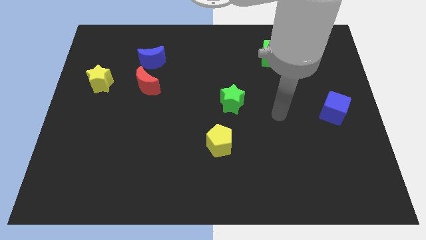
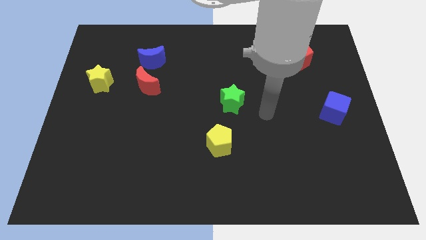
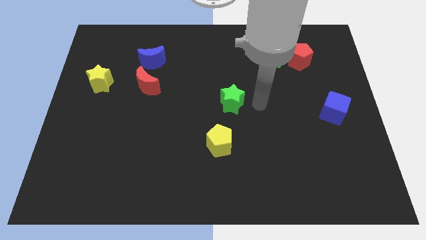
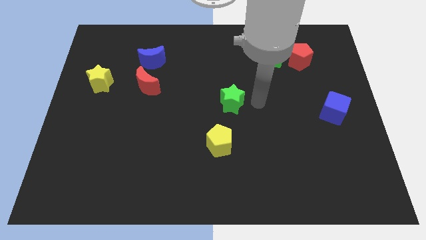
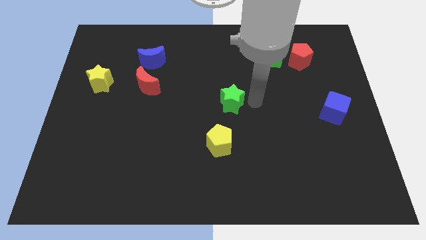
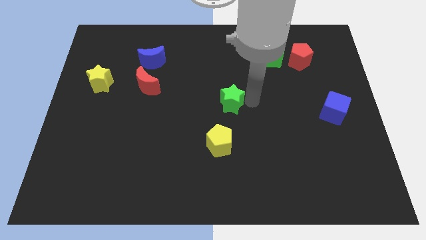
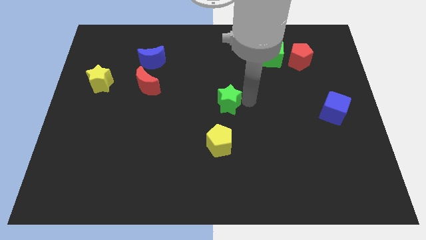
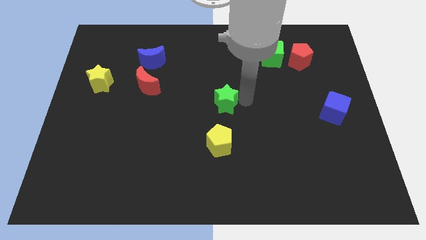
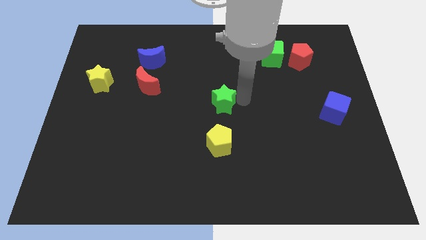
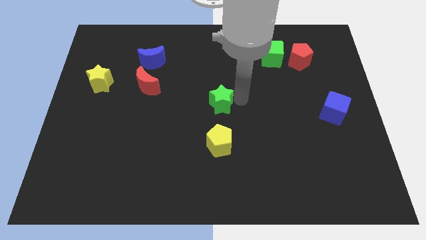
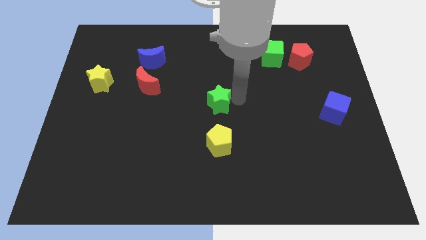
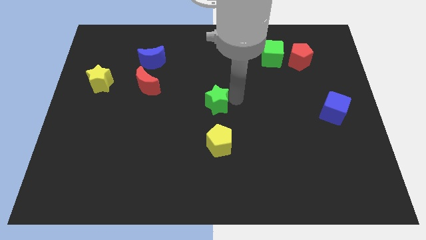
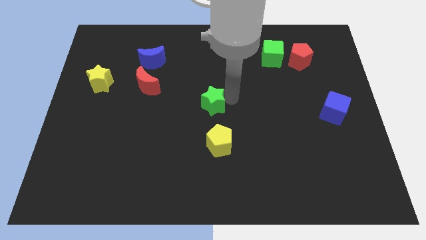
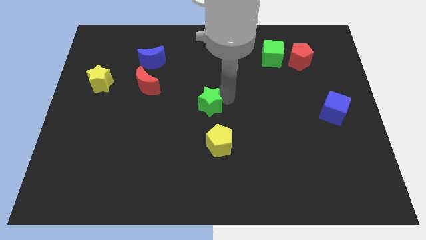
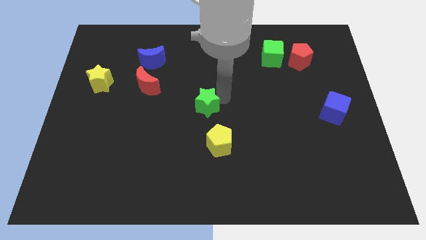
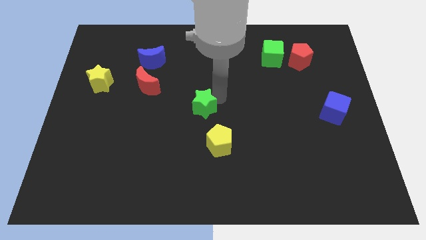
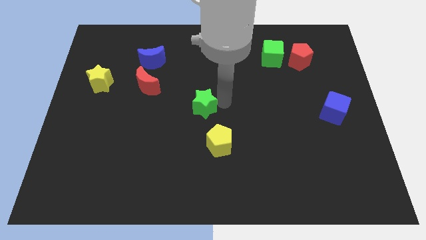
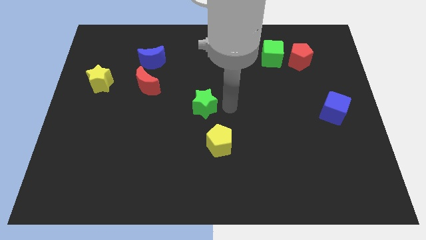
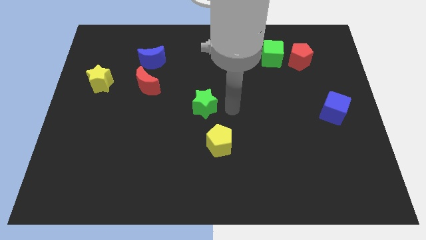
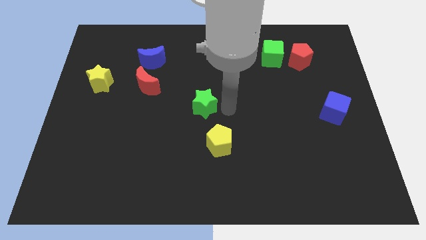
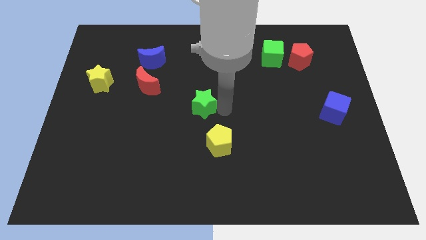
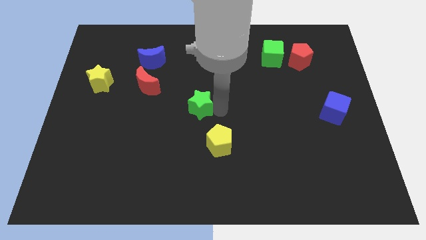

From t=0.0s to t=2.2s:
move the green star slightly left

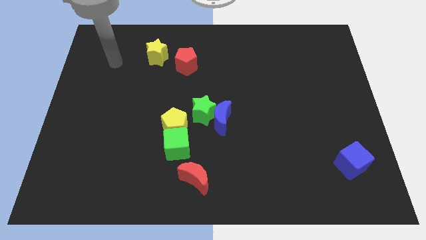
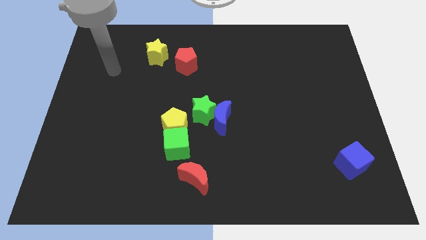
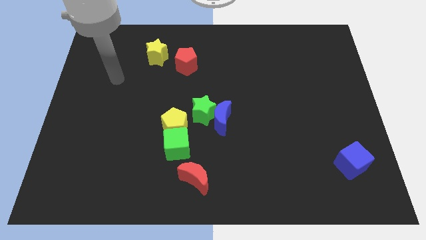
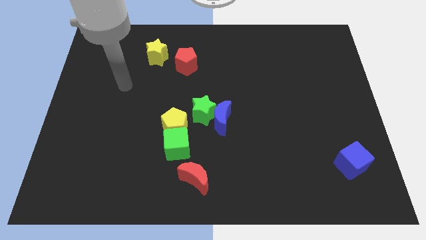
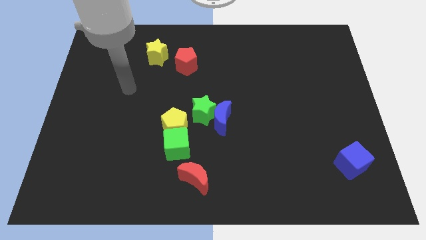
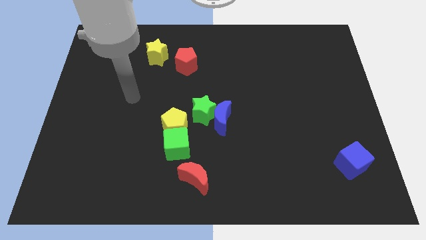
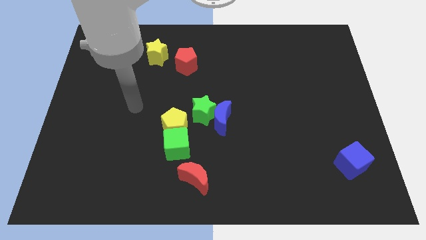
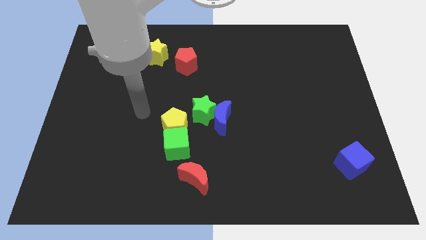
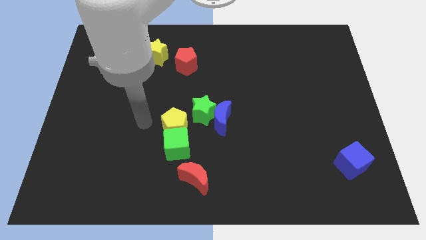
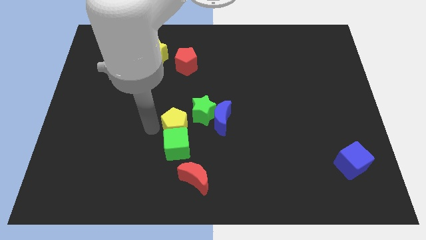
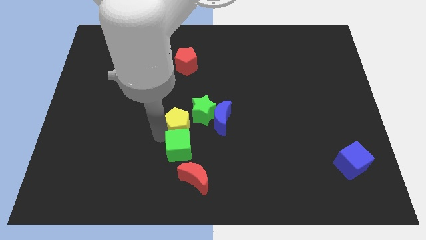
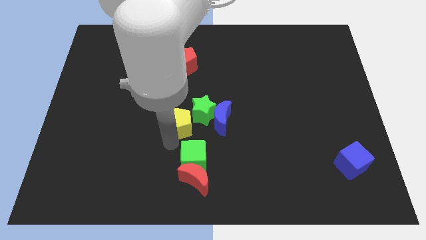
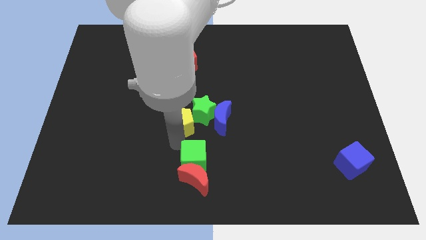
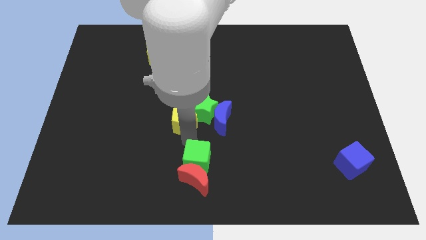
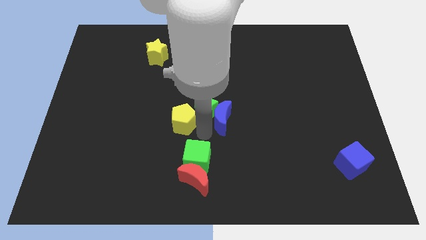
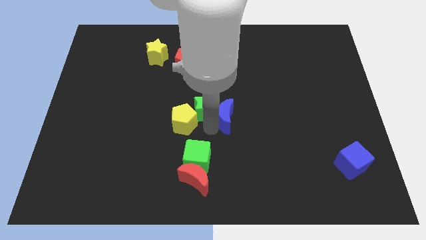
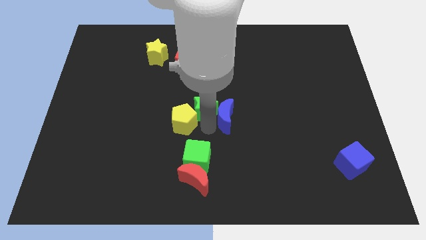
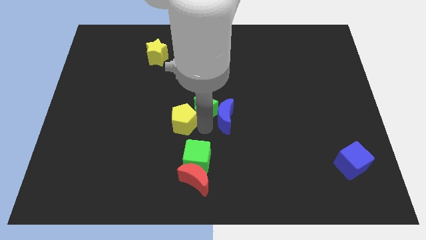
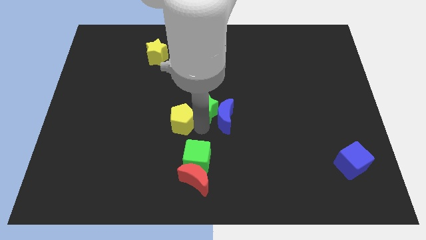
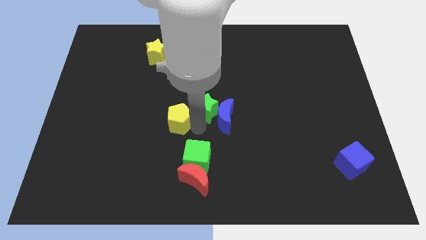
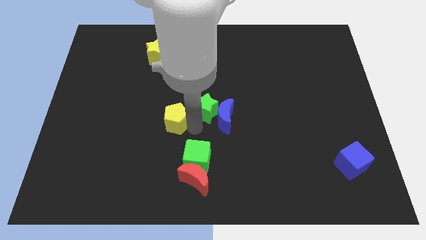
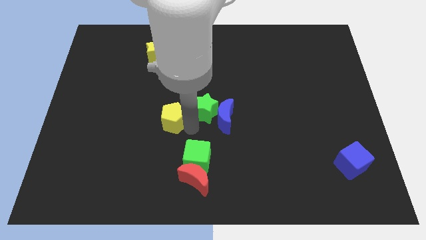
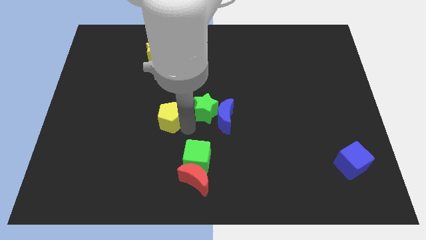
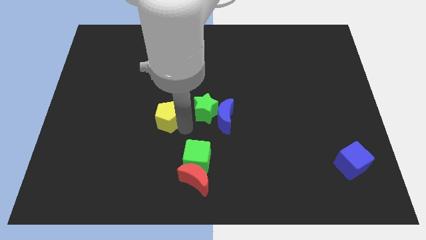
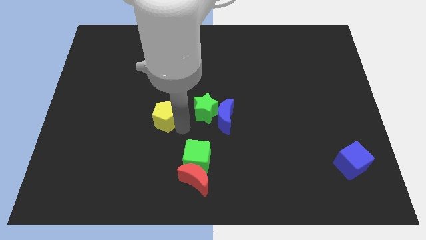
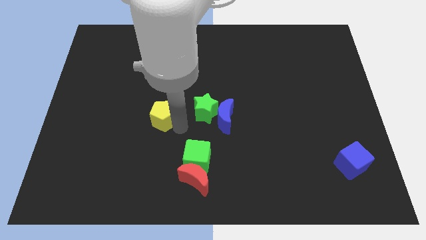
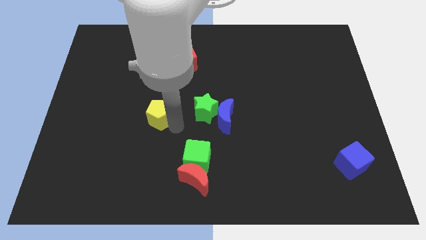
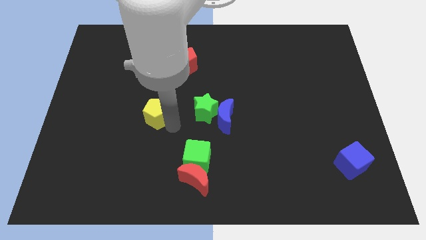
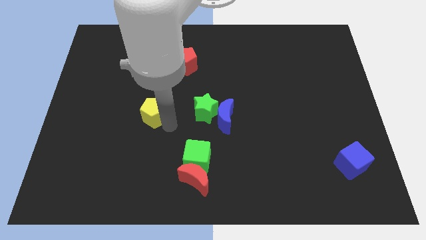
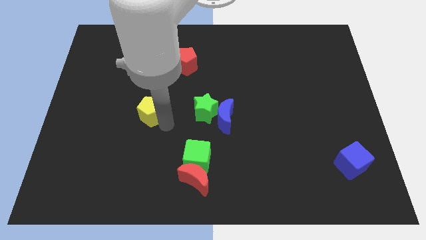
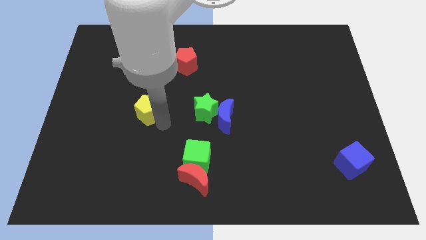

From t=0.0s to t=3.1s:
move the yellow pentagon upwards and to the left slightly

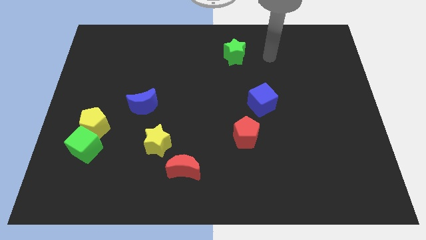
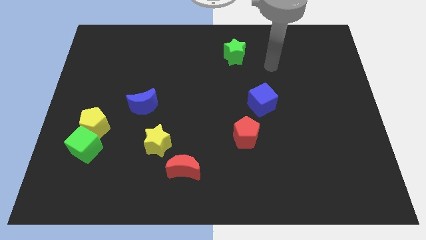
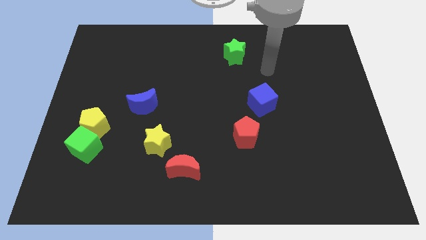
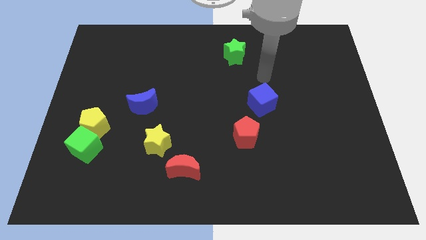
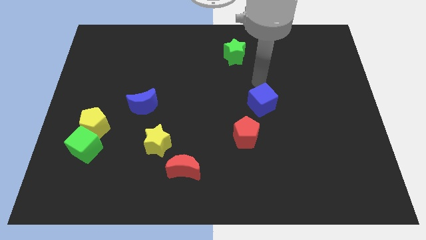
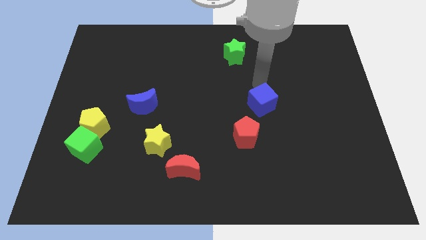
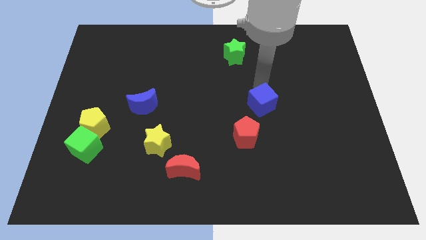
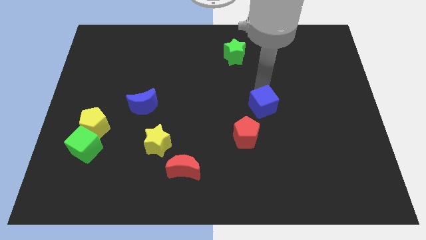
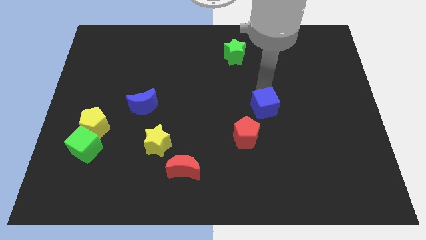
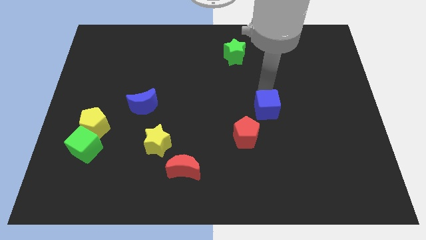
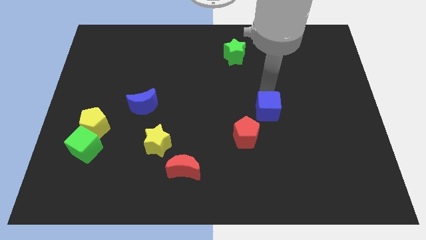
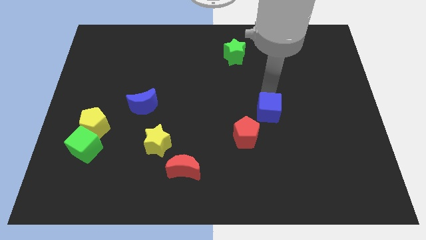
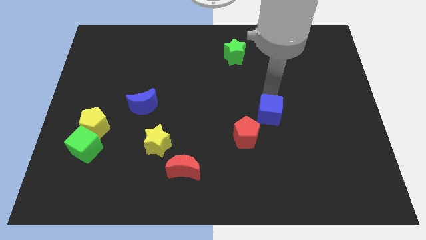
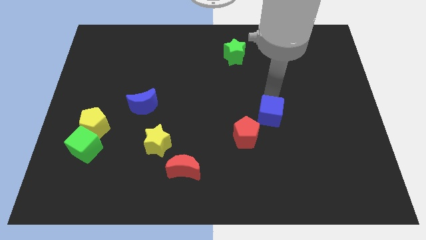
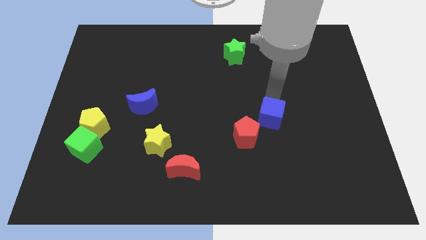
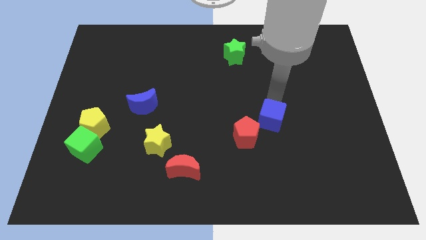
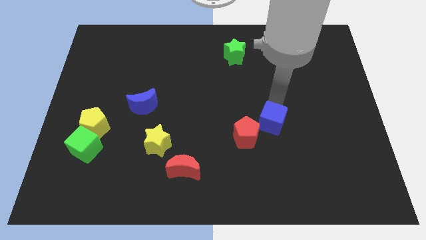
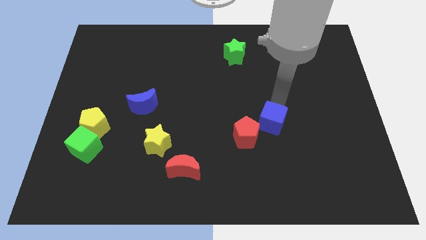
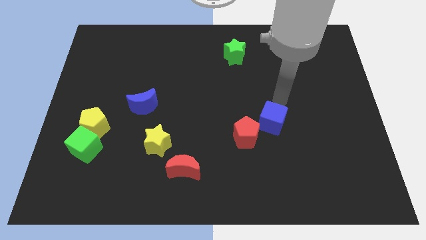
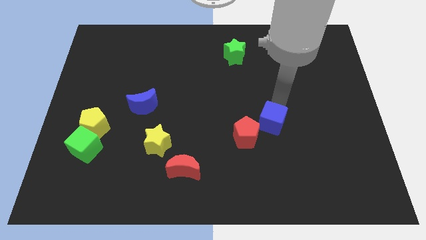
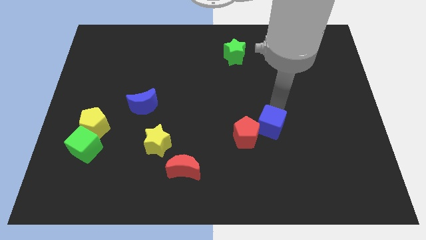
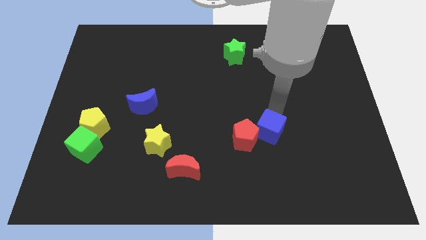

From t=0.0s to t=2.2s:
push the blue cube downwards somewhat

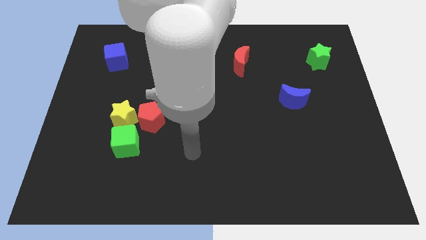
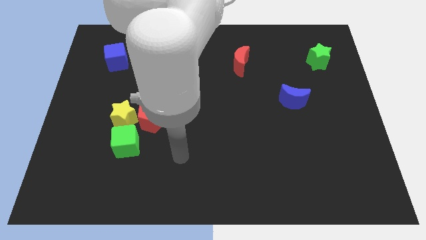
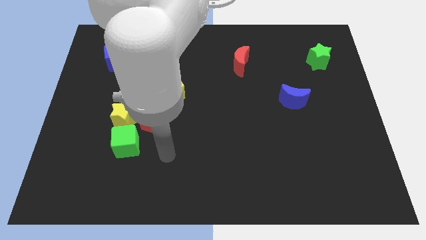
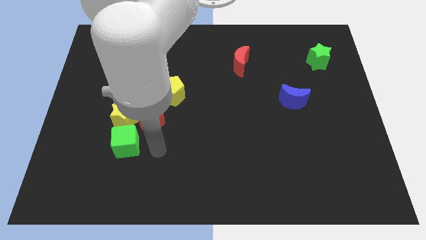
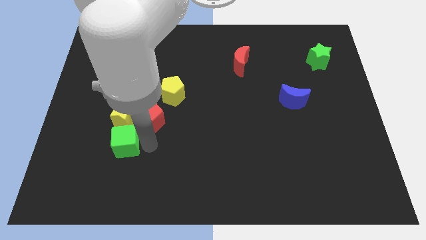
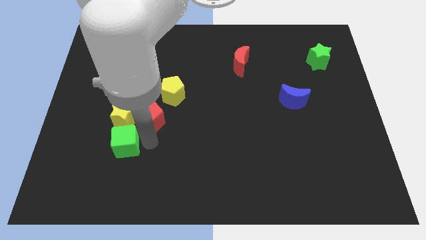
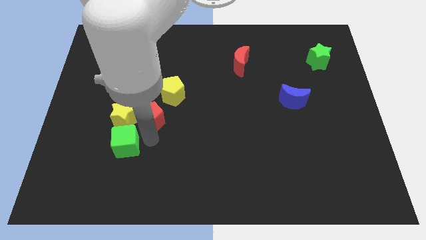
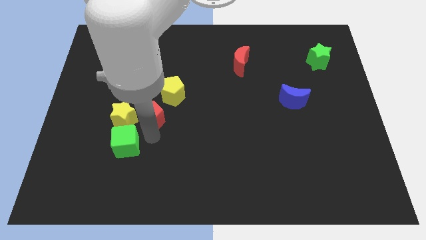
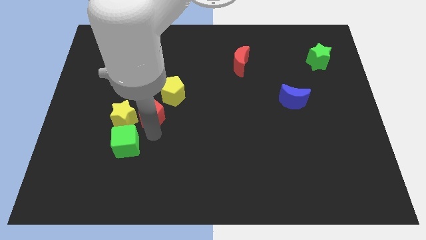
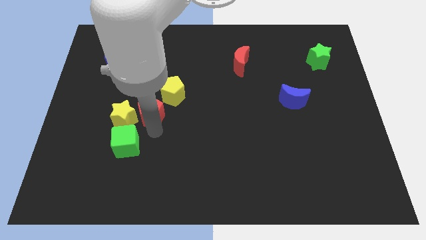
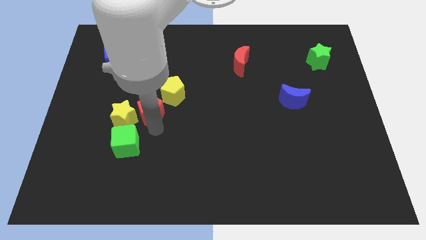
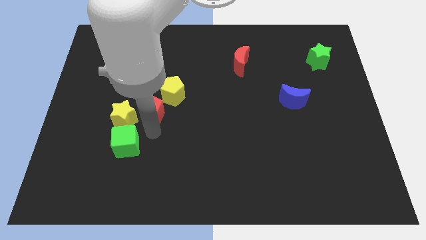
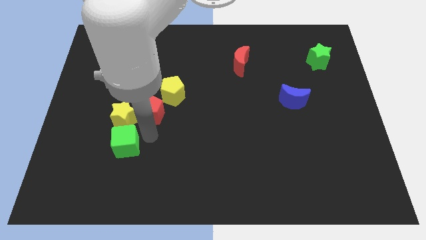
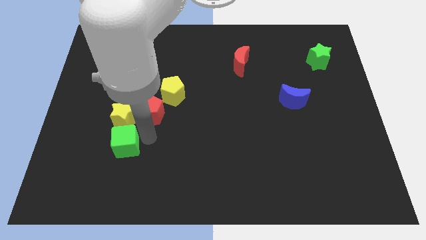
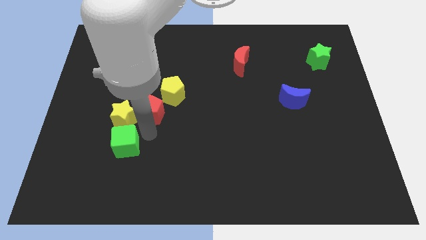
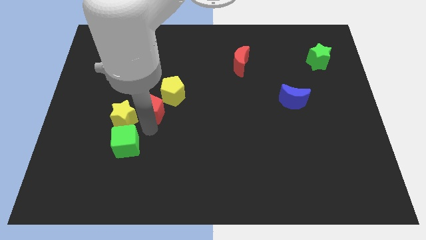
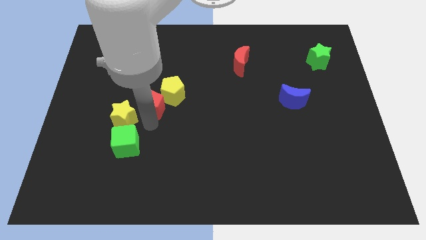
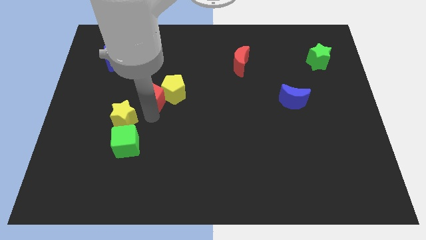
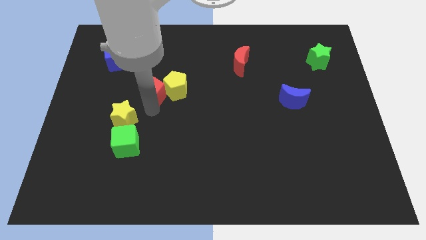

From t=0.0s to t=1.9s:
push the red pentagon up a little
